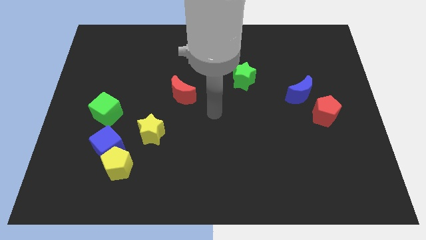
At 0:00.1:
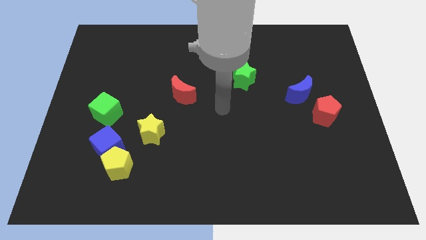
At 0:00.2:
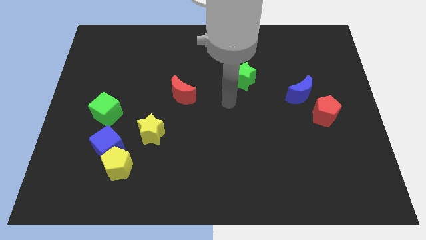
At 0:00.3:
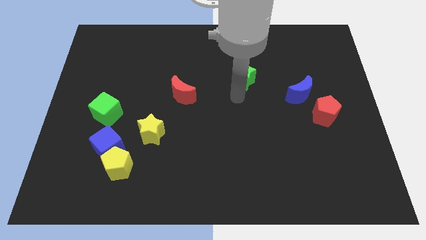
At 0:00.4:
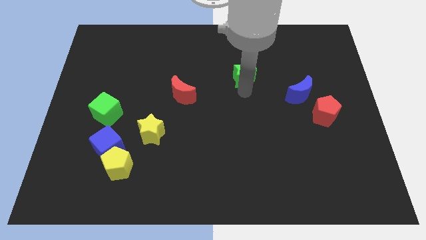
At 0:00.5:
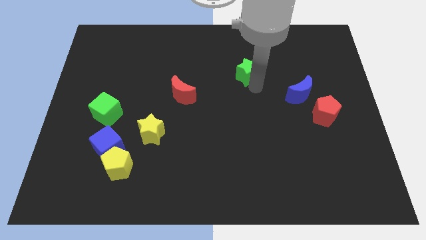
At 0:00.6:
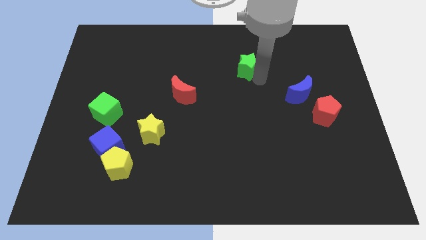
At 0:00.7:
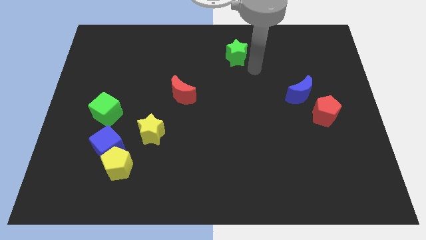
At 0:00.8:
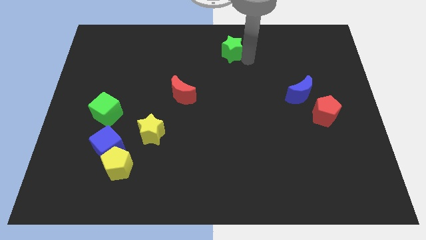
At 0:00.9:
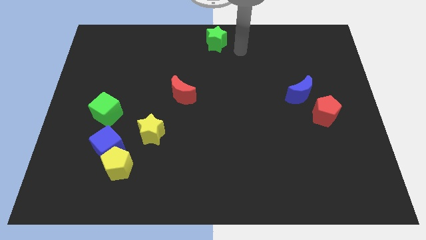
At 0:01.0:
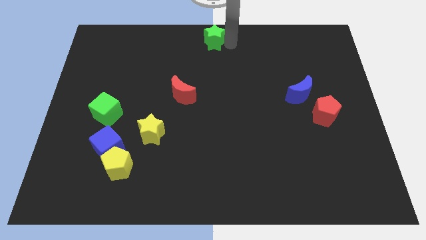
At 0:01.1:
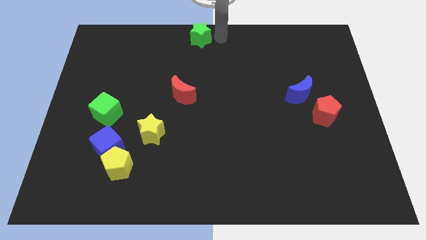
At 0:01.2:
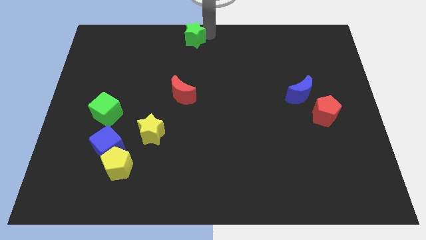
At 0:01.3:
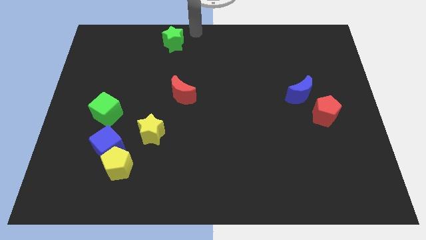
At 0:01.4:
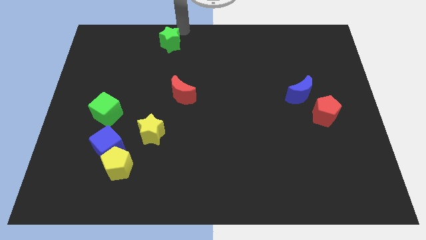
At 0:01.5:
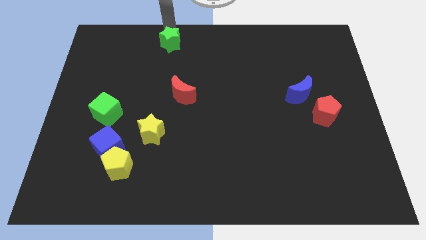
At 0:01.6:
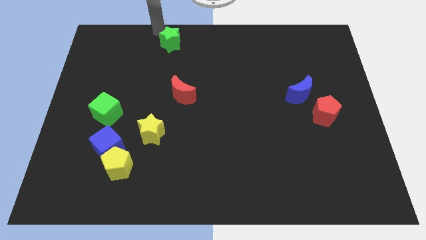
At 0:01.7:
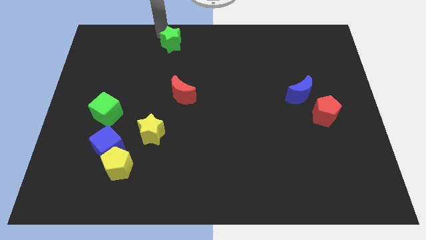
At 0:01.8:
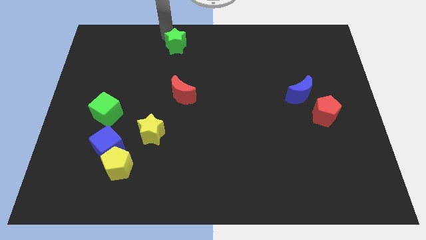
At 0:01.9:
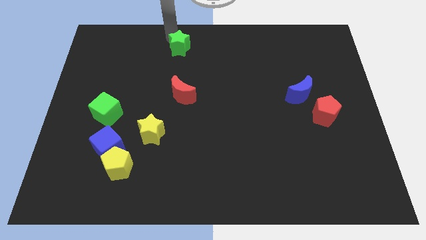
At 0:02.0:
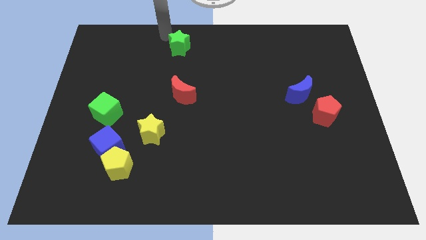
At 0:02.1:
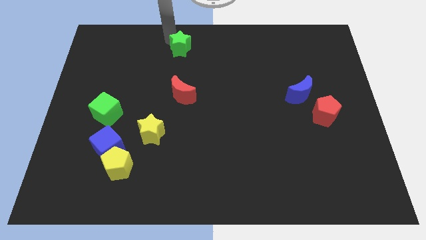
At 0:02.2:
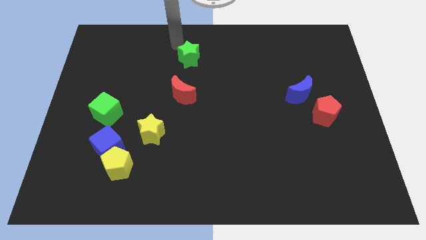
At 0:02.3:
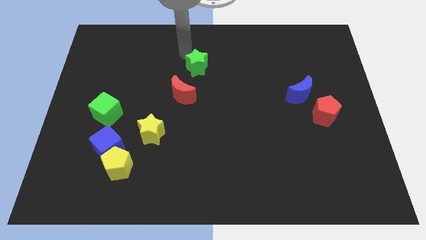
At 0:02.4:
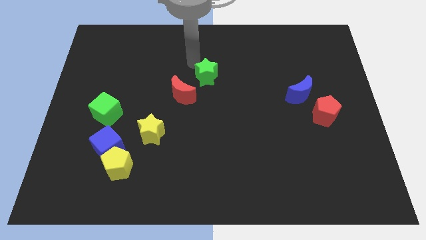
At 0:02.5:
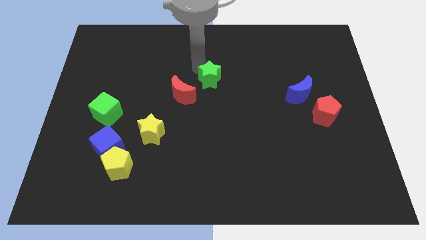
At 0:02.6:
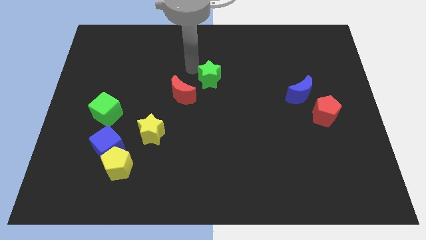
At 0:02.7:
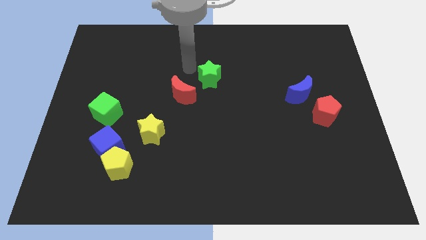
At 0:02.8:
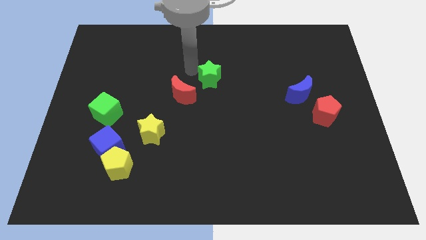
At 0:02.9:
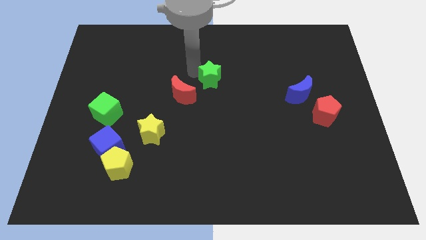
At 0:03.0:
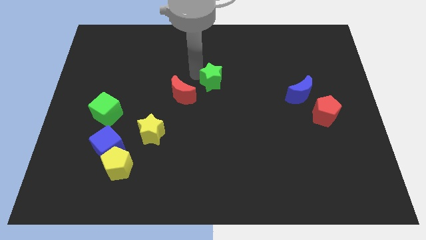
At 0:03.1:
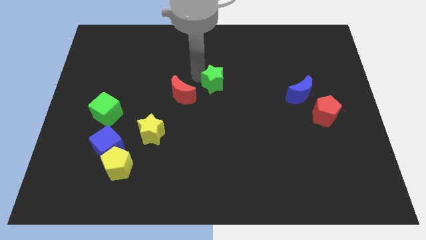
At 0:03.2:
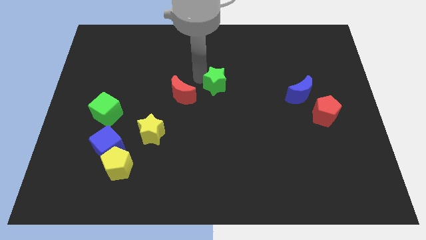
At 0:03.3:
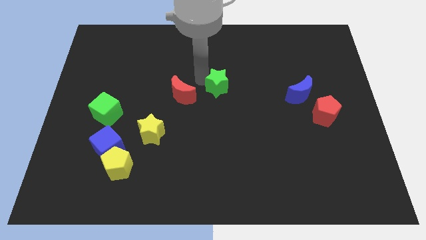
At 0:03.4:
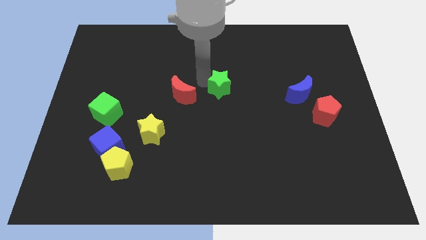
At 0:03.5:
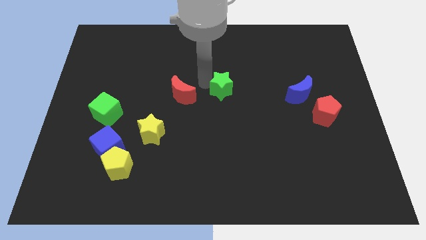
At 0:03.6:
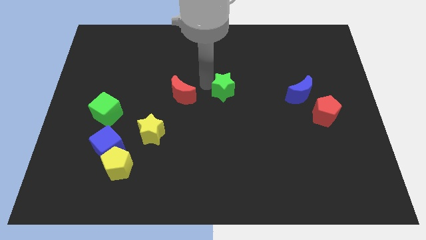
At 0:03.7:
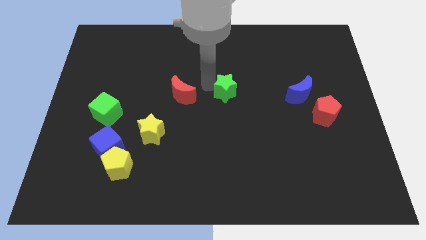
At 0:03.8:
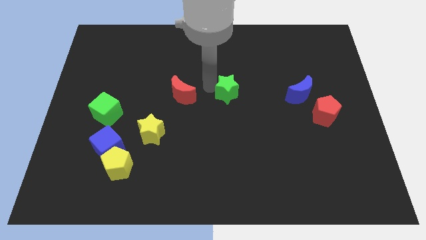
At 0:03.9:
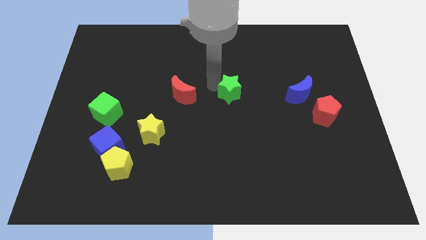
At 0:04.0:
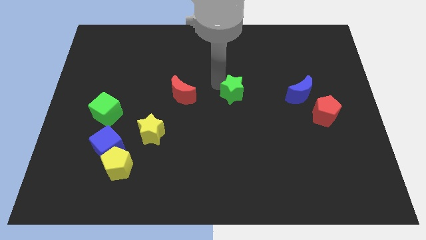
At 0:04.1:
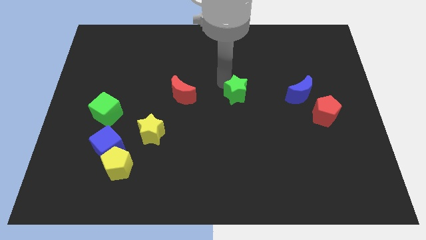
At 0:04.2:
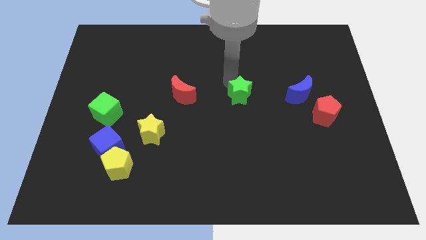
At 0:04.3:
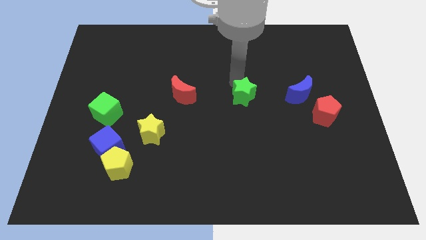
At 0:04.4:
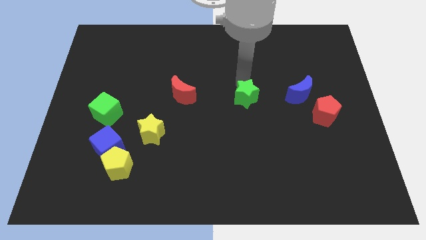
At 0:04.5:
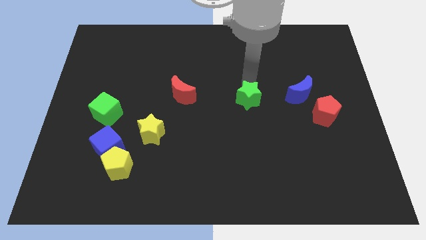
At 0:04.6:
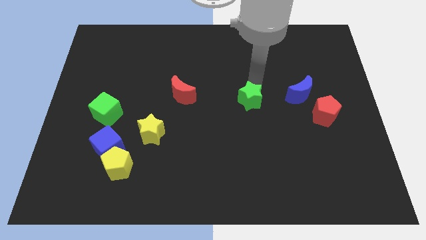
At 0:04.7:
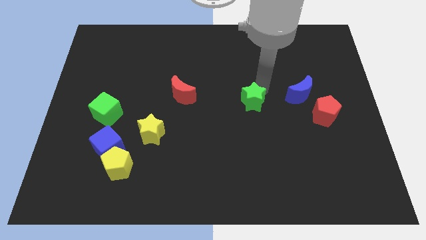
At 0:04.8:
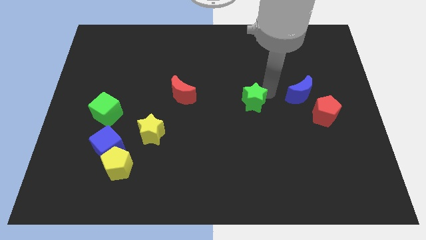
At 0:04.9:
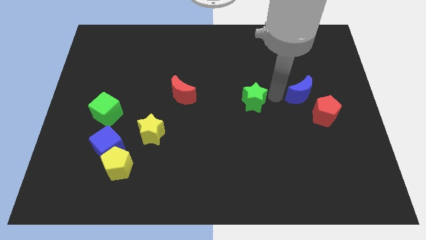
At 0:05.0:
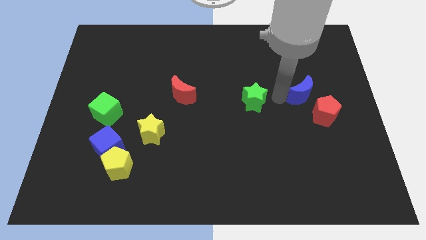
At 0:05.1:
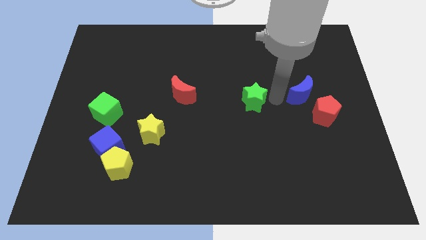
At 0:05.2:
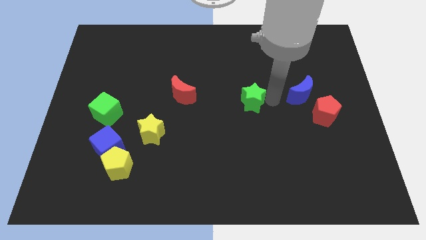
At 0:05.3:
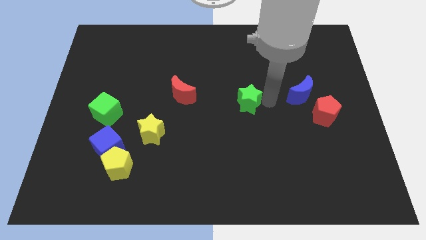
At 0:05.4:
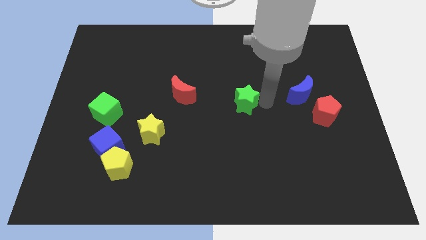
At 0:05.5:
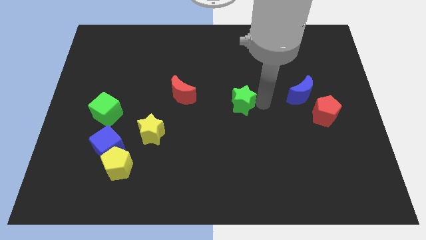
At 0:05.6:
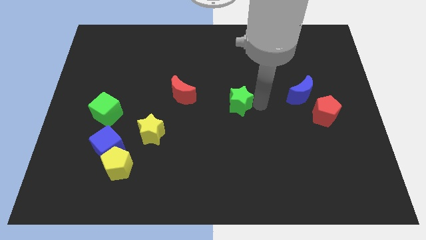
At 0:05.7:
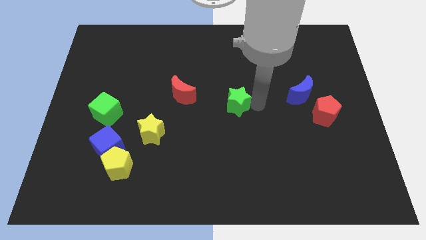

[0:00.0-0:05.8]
slide the green star down and left diagonally a little

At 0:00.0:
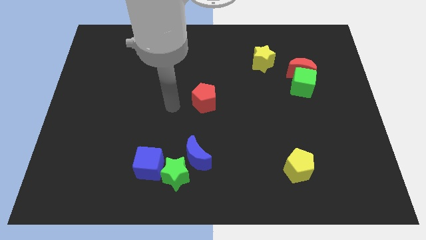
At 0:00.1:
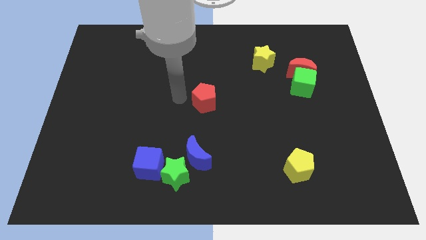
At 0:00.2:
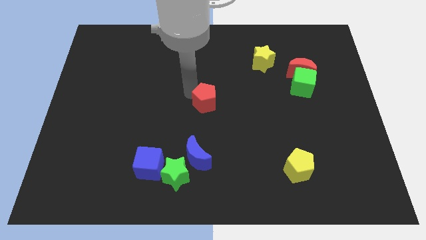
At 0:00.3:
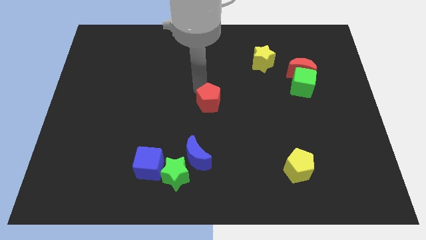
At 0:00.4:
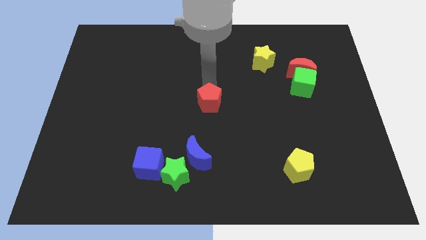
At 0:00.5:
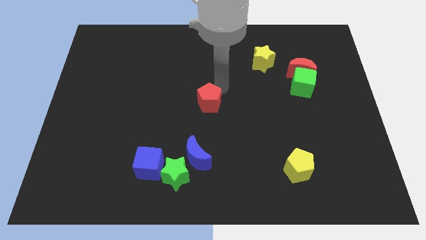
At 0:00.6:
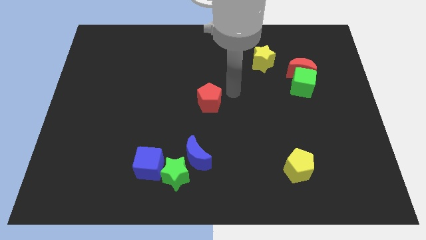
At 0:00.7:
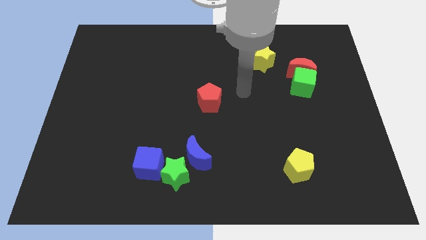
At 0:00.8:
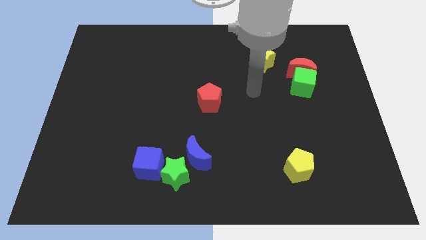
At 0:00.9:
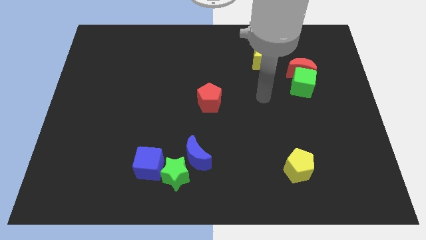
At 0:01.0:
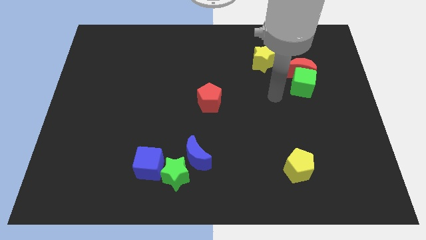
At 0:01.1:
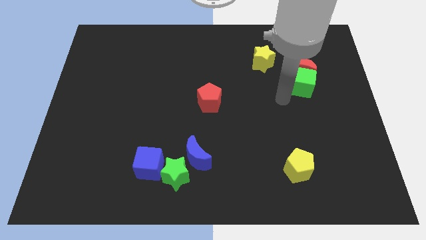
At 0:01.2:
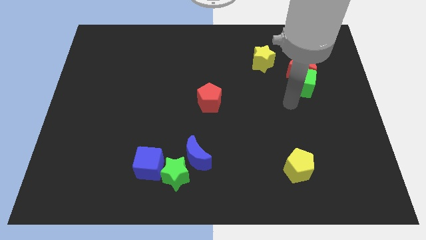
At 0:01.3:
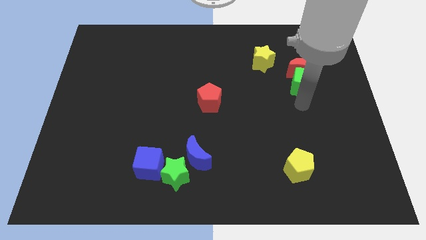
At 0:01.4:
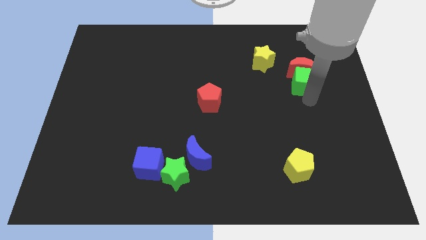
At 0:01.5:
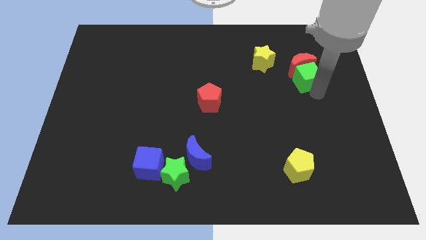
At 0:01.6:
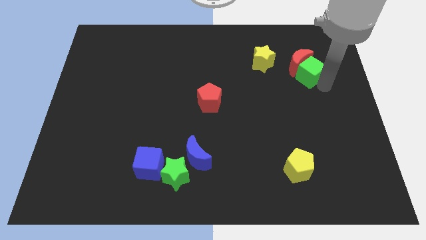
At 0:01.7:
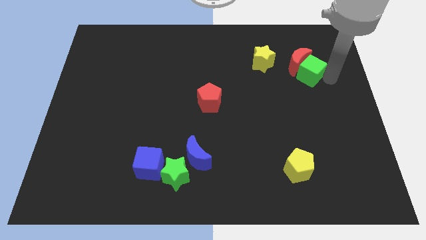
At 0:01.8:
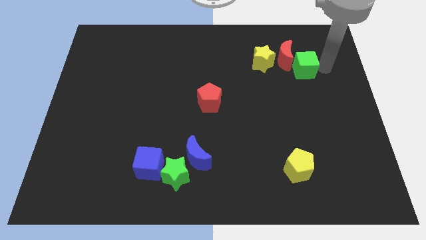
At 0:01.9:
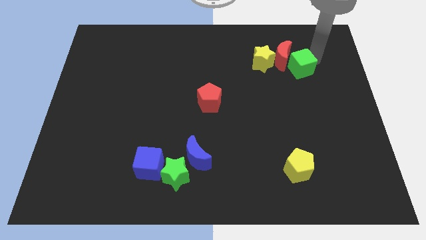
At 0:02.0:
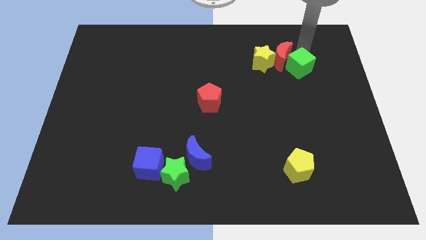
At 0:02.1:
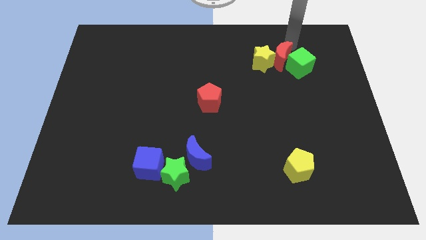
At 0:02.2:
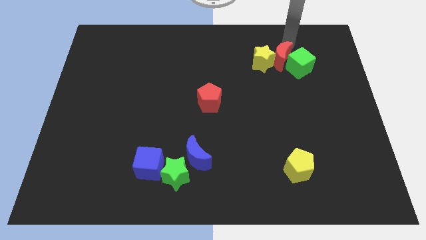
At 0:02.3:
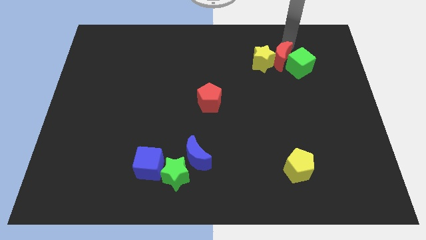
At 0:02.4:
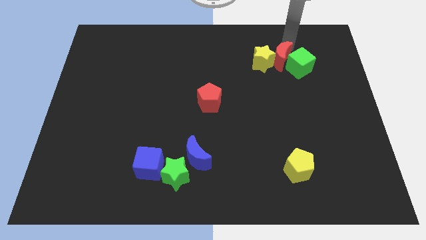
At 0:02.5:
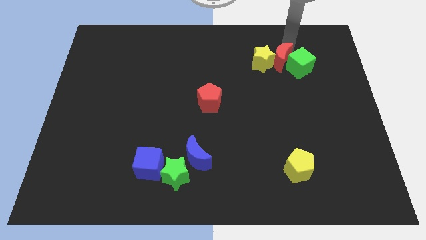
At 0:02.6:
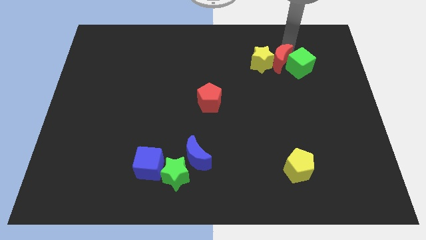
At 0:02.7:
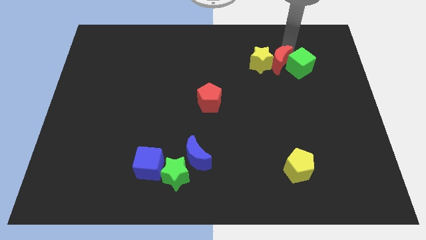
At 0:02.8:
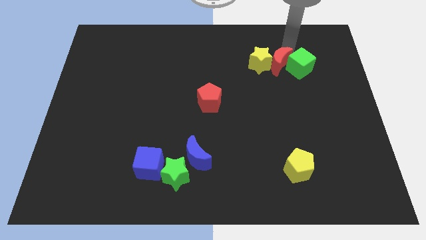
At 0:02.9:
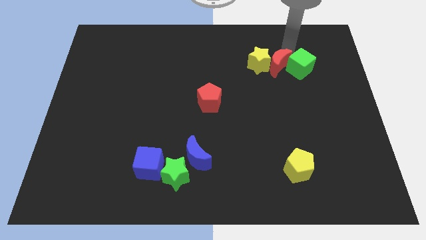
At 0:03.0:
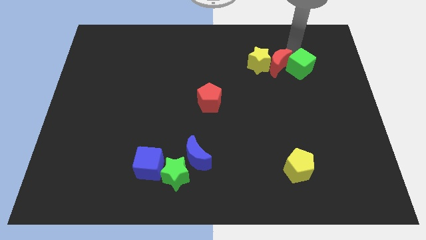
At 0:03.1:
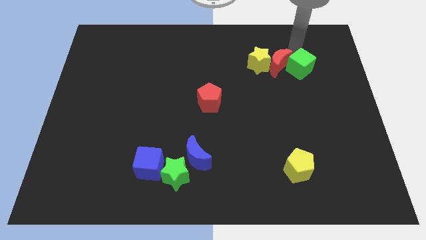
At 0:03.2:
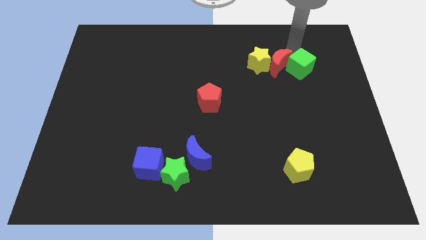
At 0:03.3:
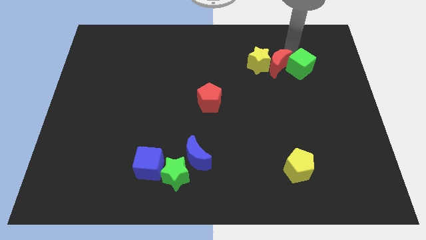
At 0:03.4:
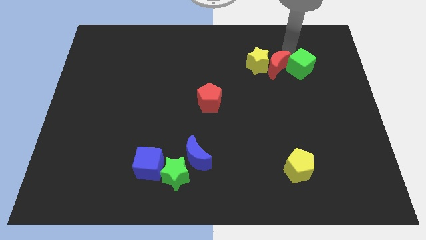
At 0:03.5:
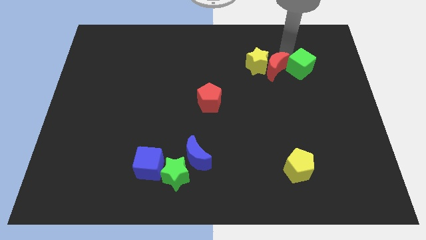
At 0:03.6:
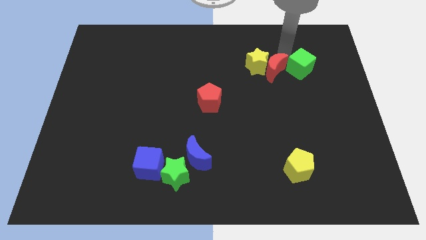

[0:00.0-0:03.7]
push the red moon slightly to the left
